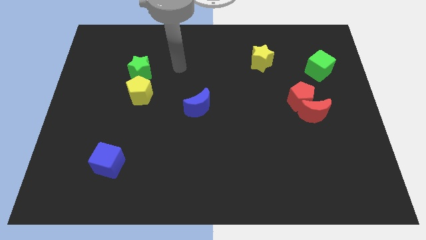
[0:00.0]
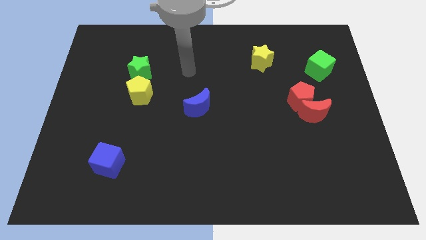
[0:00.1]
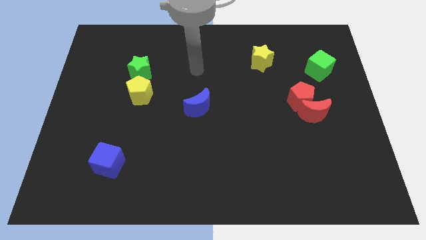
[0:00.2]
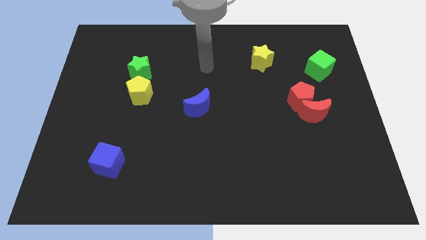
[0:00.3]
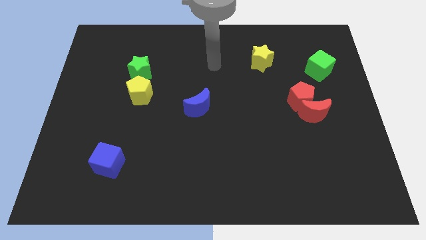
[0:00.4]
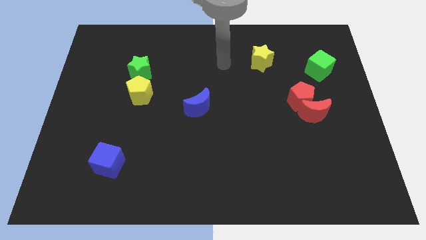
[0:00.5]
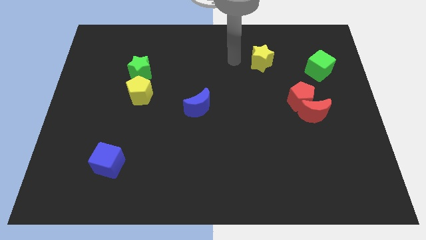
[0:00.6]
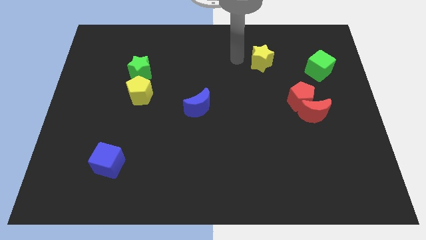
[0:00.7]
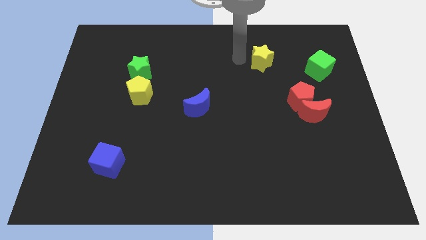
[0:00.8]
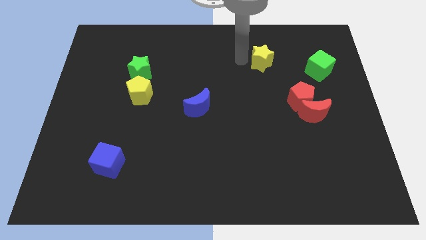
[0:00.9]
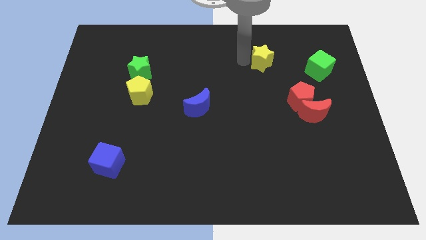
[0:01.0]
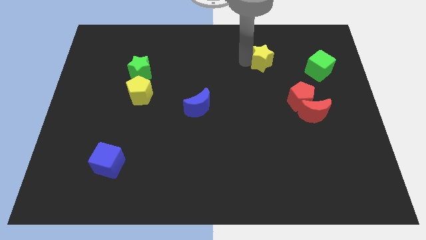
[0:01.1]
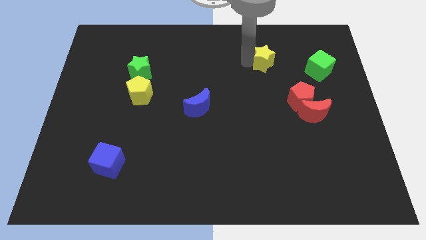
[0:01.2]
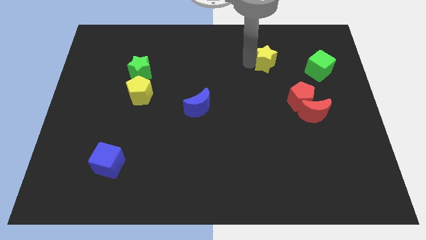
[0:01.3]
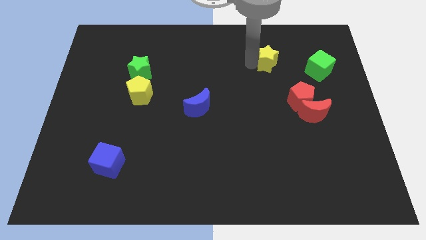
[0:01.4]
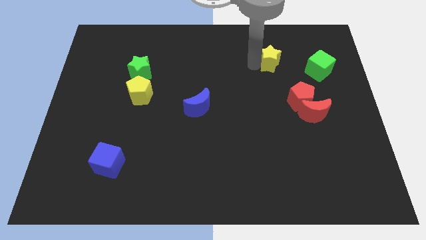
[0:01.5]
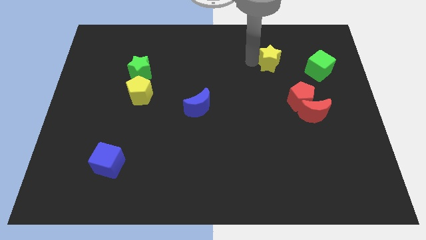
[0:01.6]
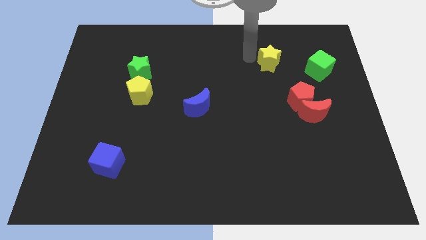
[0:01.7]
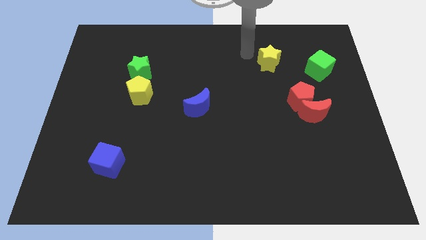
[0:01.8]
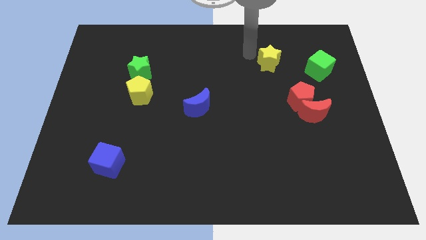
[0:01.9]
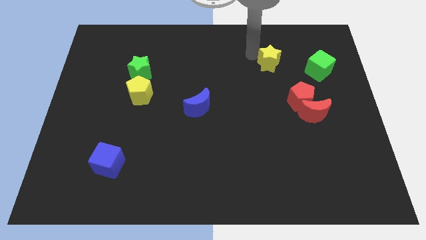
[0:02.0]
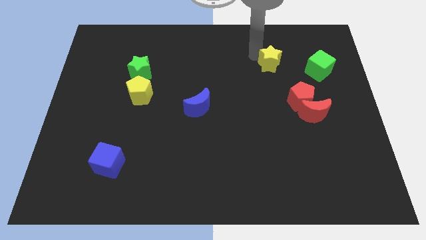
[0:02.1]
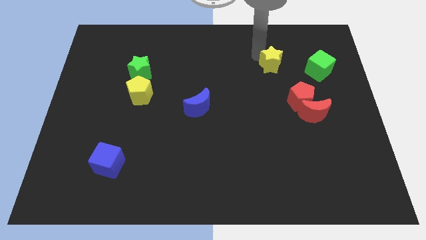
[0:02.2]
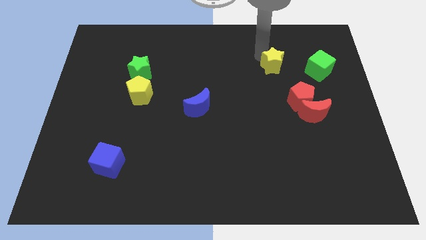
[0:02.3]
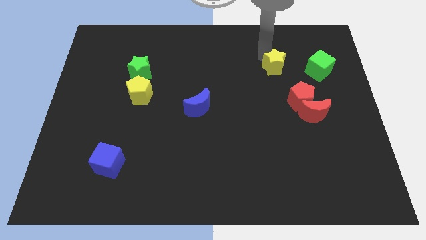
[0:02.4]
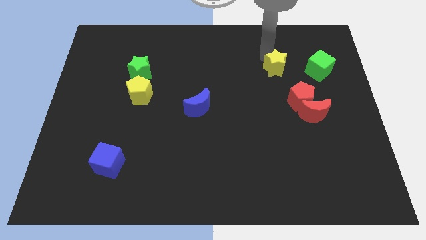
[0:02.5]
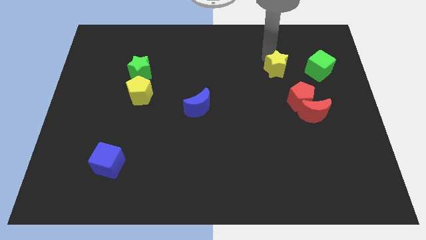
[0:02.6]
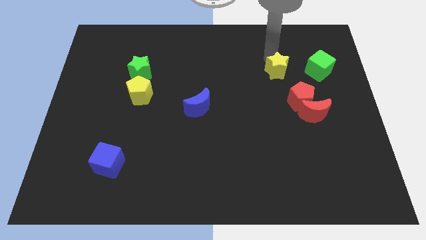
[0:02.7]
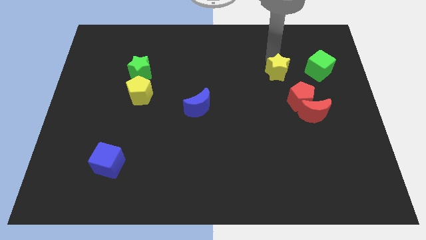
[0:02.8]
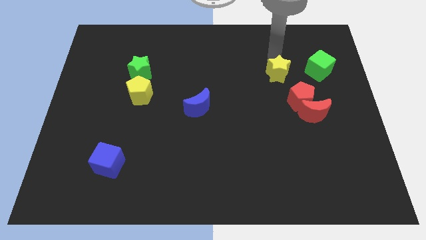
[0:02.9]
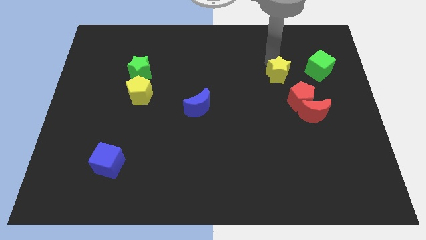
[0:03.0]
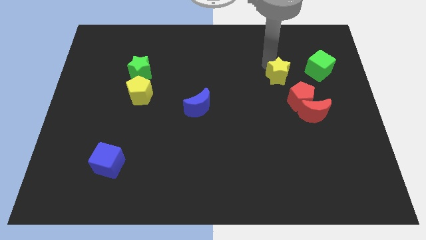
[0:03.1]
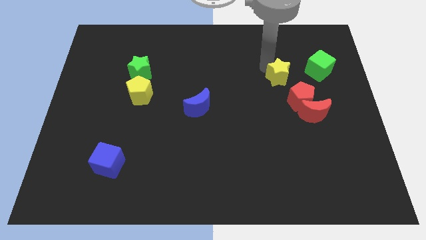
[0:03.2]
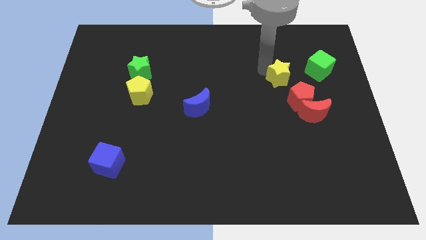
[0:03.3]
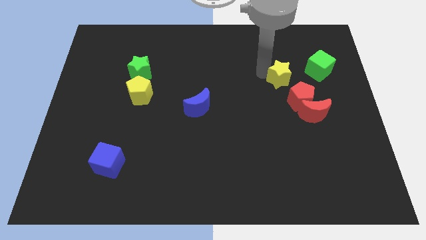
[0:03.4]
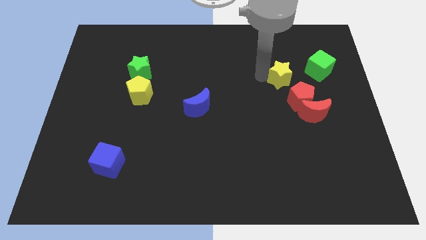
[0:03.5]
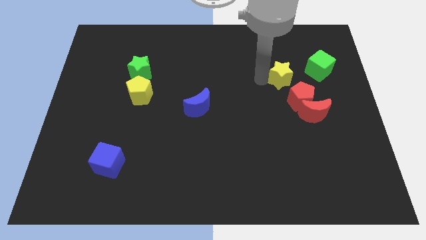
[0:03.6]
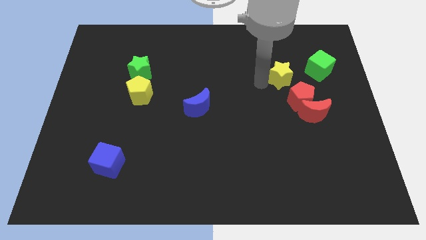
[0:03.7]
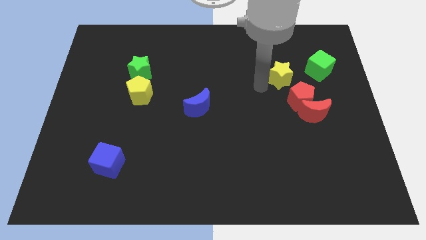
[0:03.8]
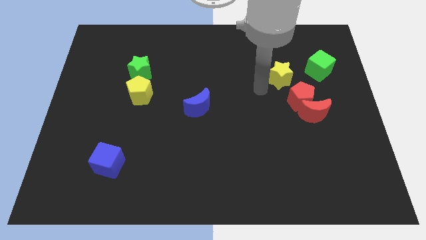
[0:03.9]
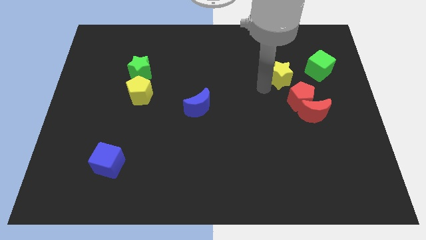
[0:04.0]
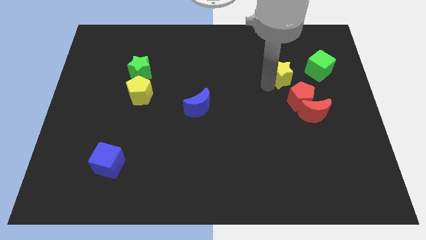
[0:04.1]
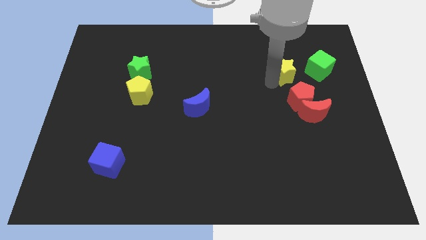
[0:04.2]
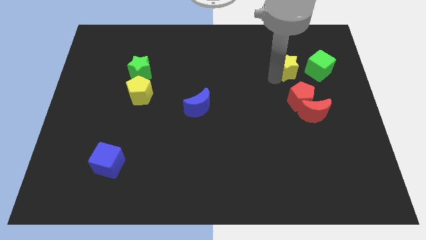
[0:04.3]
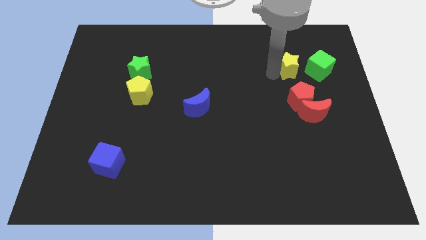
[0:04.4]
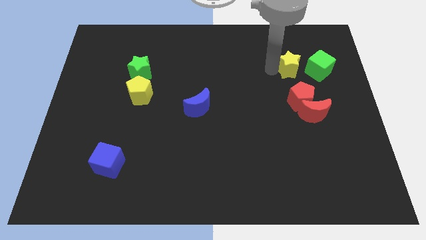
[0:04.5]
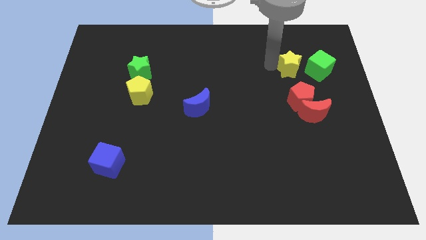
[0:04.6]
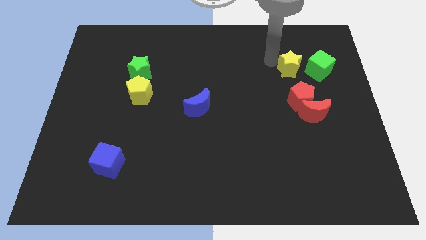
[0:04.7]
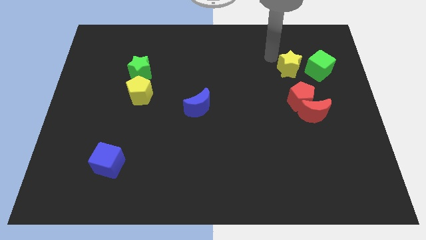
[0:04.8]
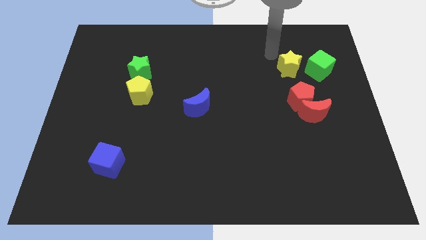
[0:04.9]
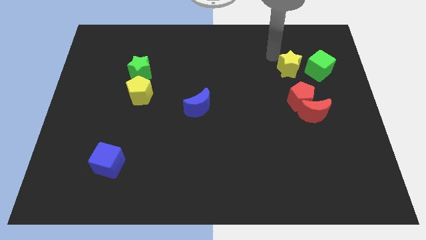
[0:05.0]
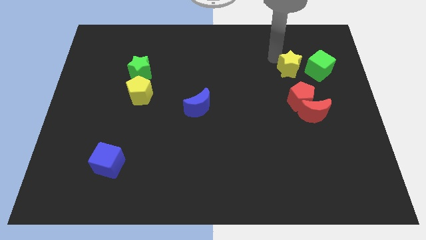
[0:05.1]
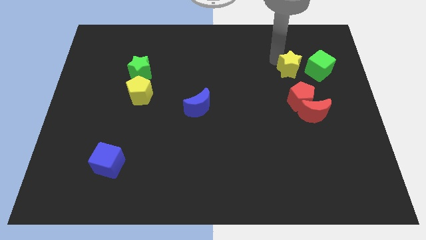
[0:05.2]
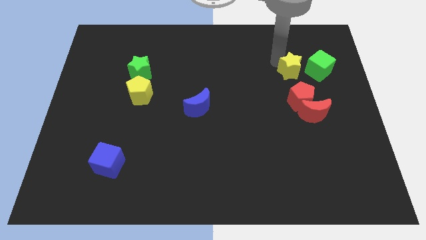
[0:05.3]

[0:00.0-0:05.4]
push the yellow star above the red moon

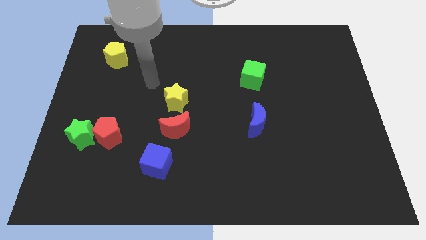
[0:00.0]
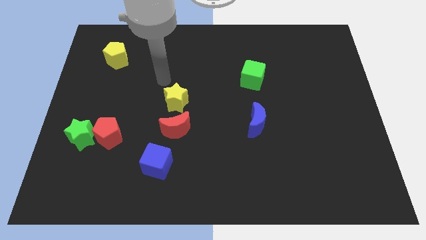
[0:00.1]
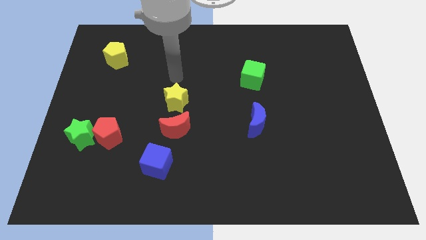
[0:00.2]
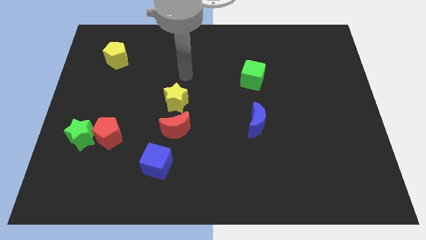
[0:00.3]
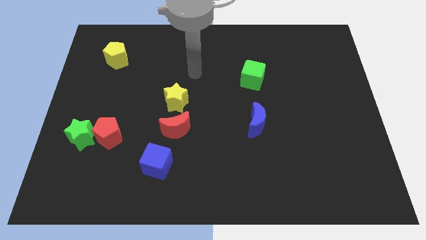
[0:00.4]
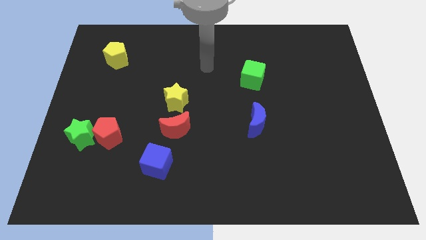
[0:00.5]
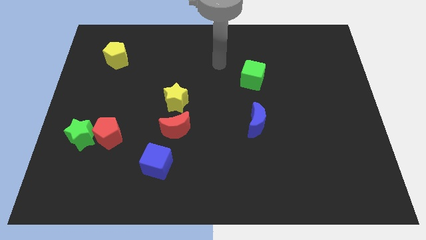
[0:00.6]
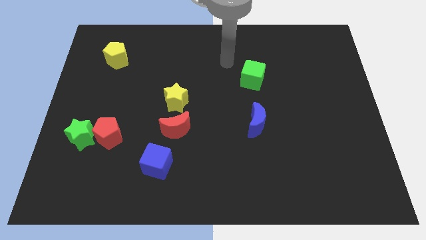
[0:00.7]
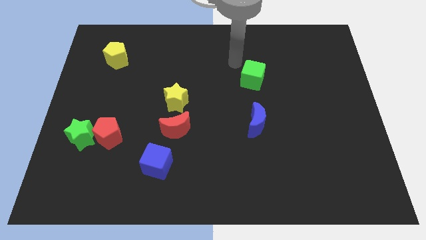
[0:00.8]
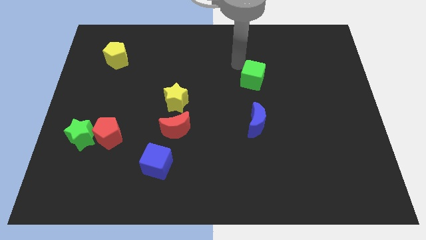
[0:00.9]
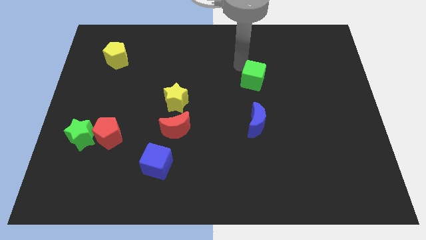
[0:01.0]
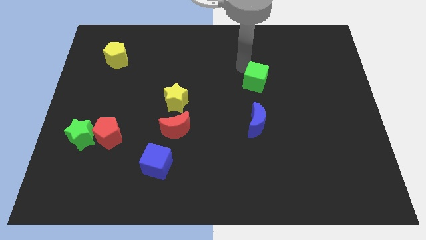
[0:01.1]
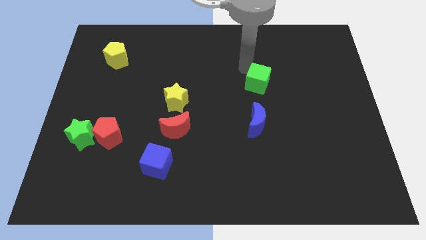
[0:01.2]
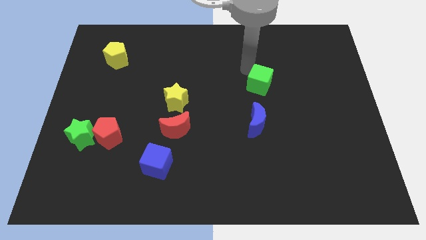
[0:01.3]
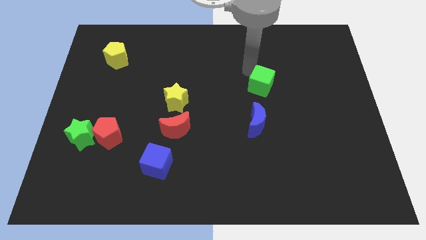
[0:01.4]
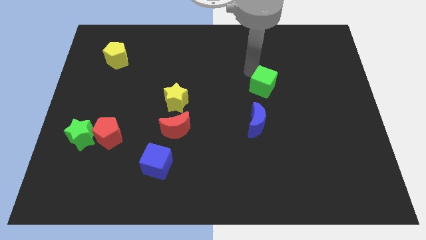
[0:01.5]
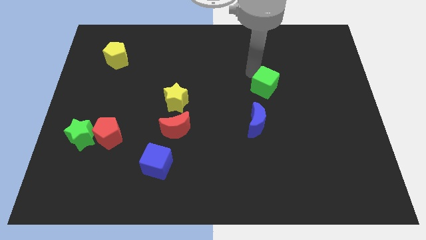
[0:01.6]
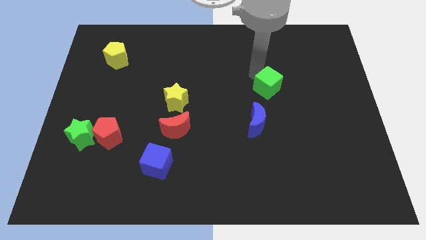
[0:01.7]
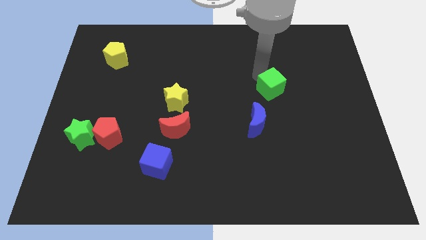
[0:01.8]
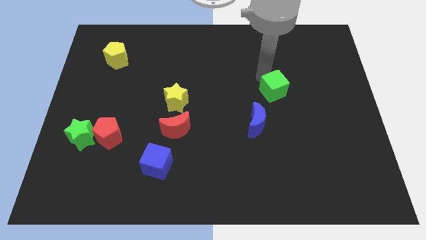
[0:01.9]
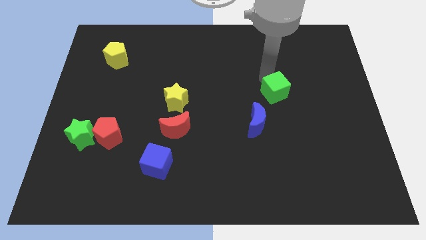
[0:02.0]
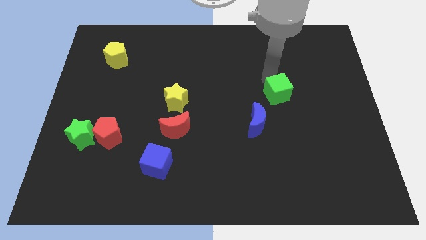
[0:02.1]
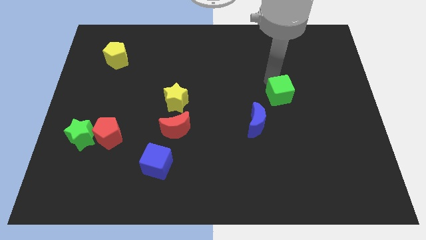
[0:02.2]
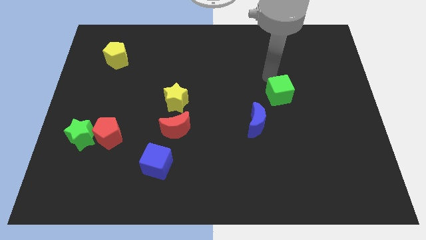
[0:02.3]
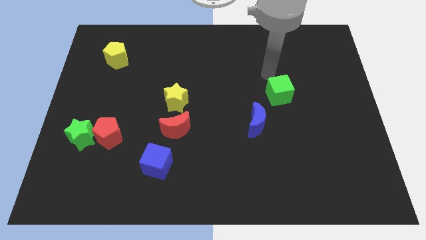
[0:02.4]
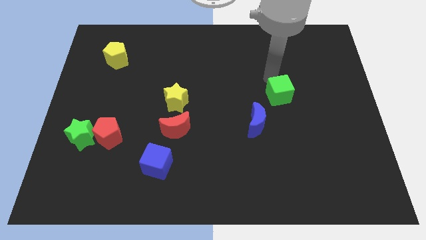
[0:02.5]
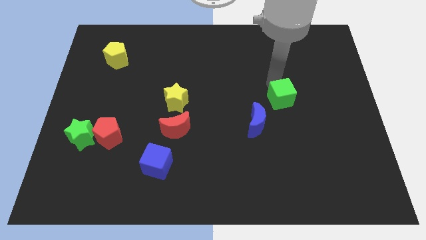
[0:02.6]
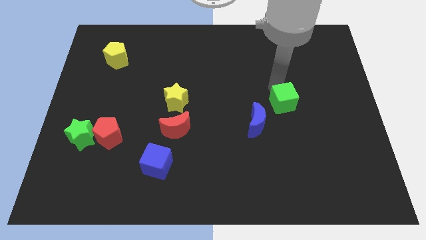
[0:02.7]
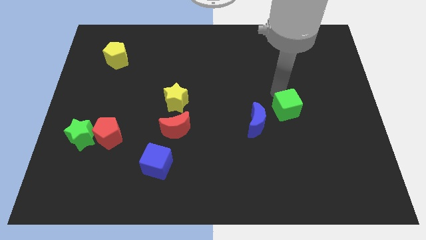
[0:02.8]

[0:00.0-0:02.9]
slide the green cube to the right side of the blue moon
